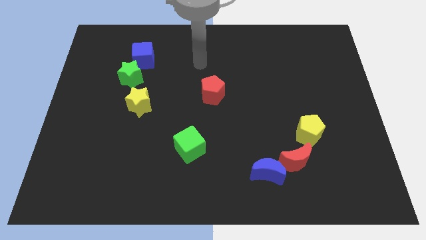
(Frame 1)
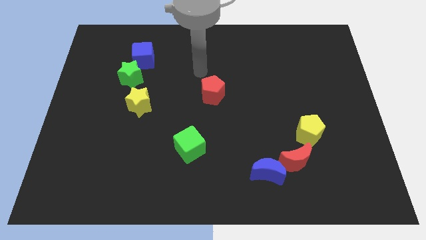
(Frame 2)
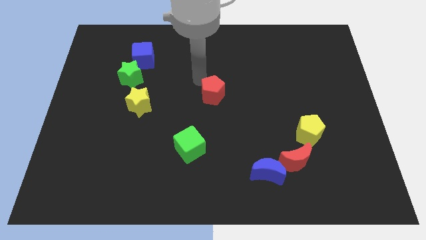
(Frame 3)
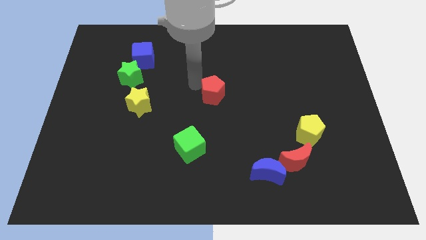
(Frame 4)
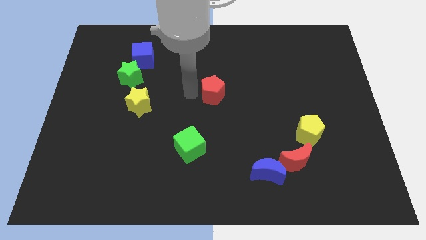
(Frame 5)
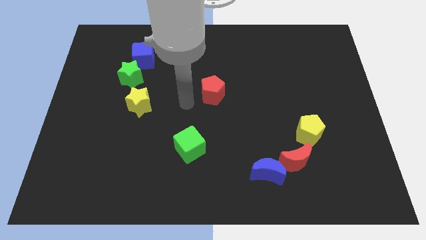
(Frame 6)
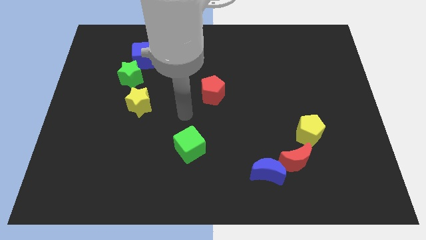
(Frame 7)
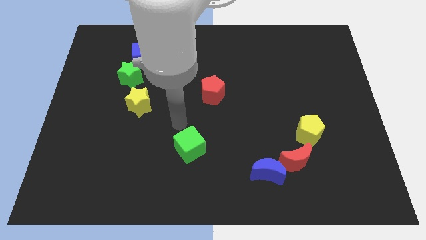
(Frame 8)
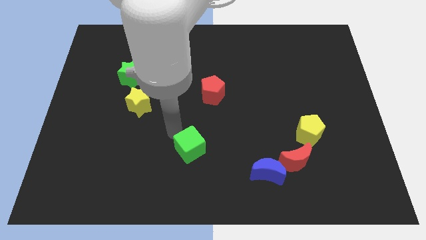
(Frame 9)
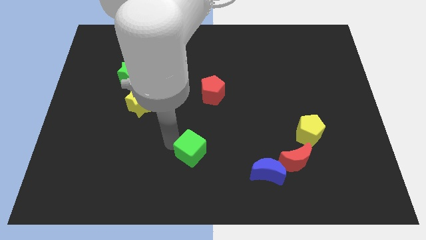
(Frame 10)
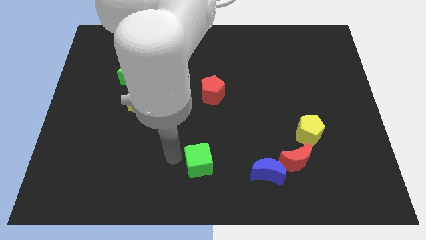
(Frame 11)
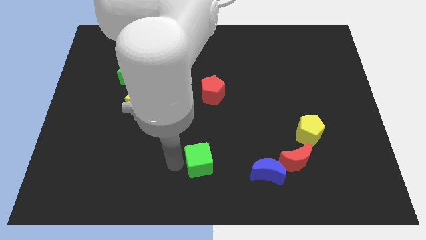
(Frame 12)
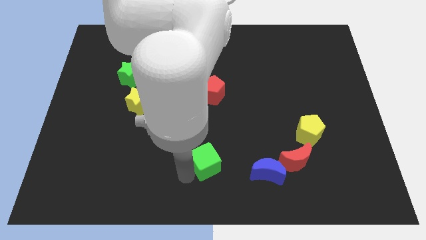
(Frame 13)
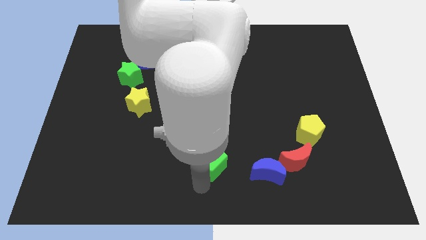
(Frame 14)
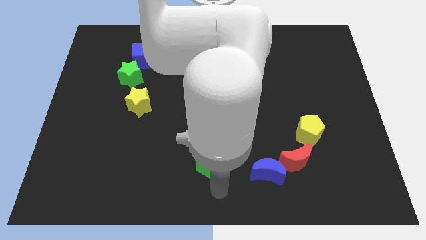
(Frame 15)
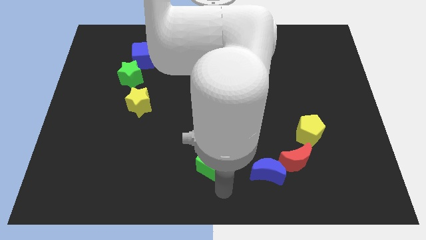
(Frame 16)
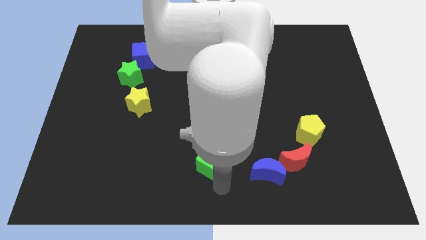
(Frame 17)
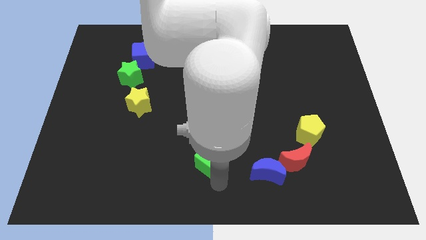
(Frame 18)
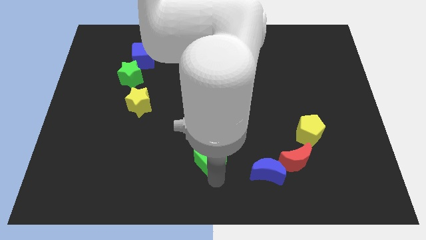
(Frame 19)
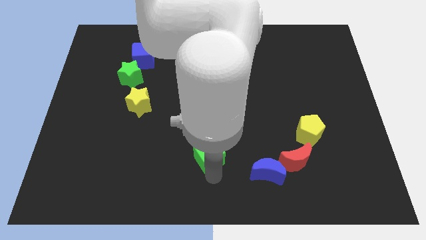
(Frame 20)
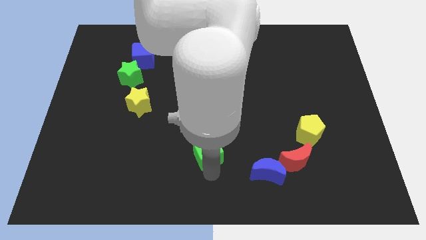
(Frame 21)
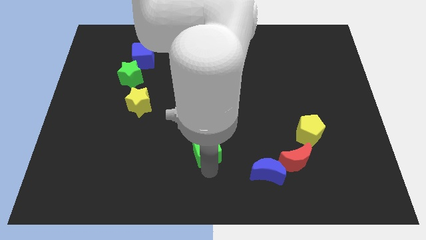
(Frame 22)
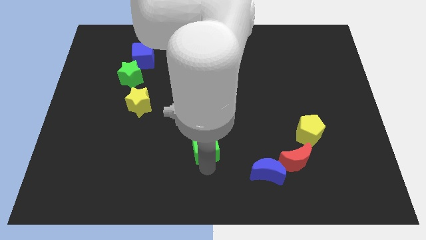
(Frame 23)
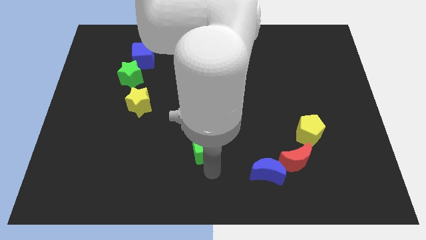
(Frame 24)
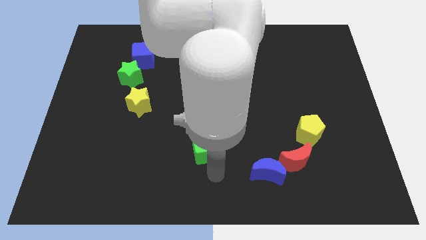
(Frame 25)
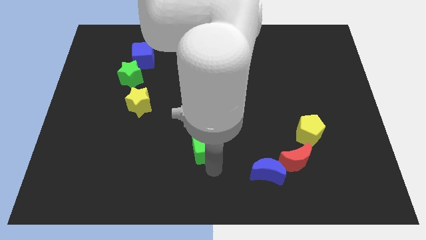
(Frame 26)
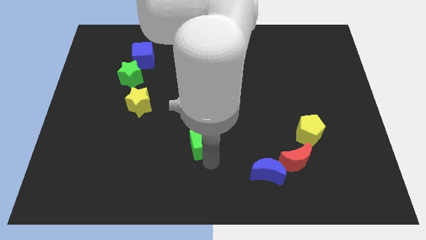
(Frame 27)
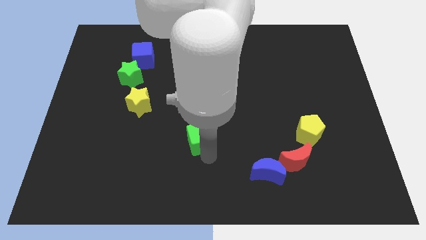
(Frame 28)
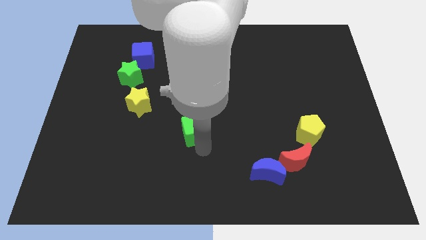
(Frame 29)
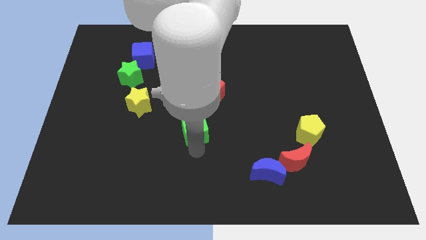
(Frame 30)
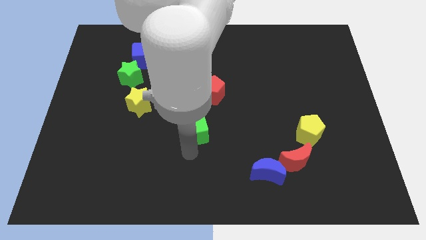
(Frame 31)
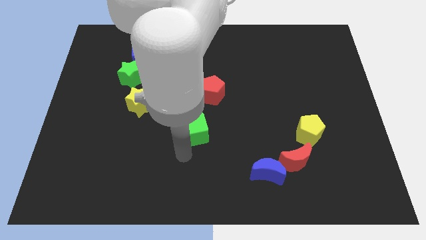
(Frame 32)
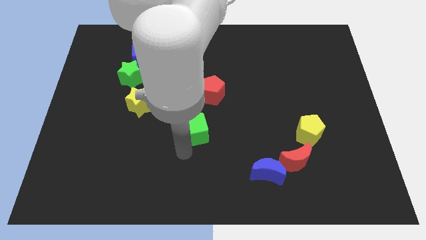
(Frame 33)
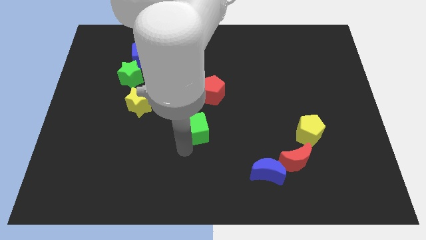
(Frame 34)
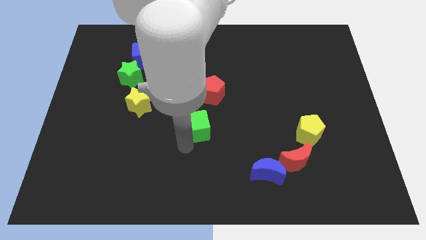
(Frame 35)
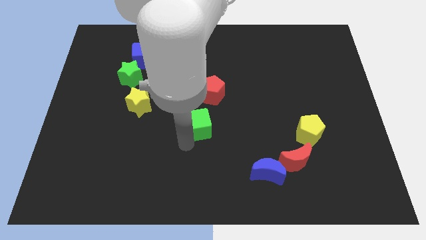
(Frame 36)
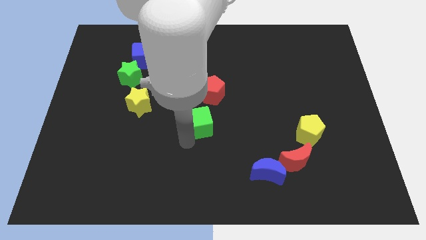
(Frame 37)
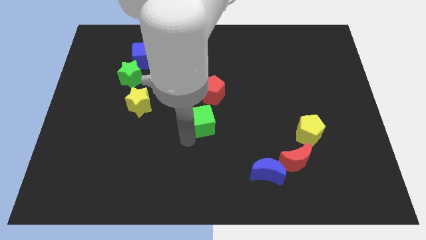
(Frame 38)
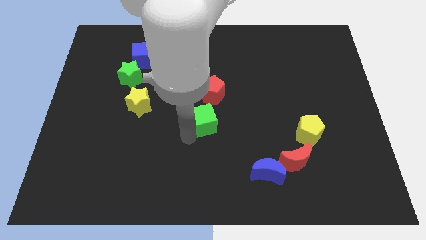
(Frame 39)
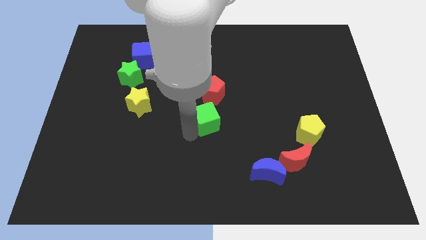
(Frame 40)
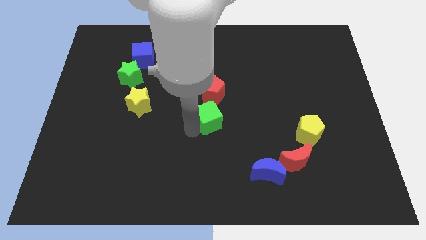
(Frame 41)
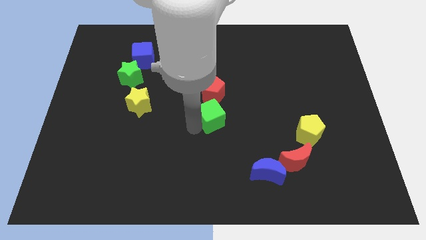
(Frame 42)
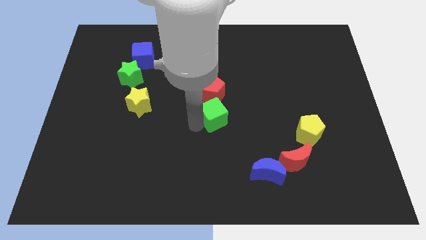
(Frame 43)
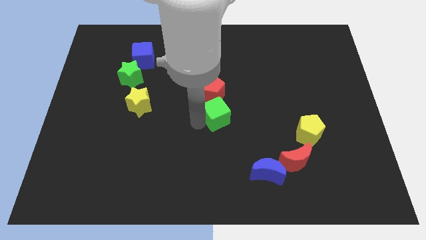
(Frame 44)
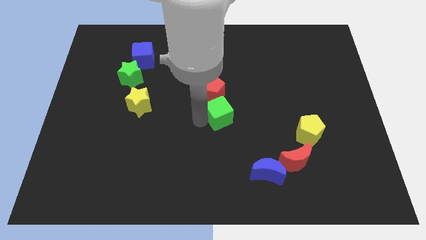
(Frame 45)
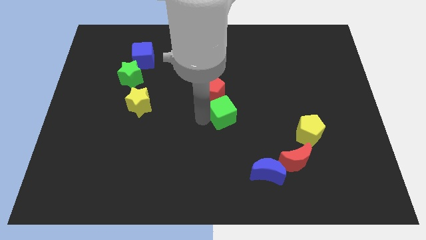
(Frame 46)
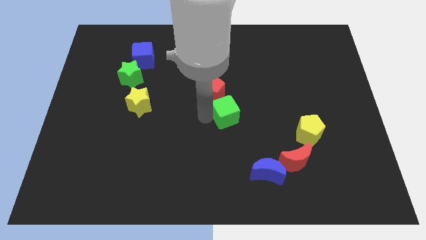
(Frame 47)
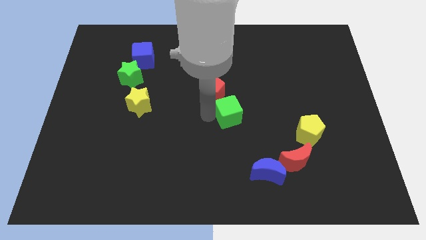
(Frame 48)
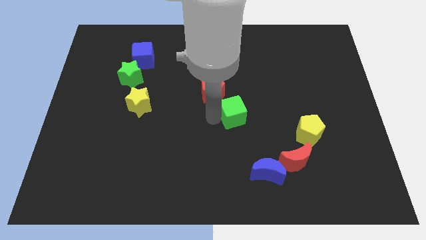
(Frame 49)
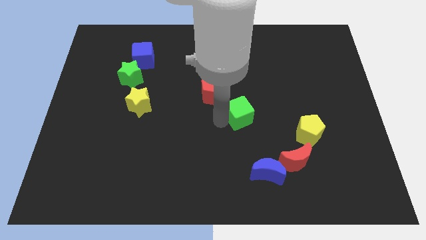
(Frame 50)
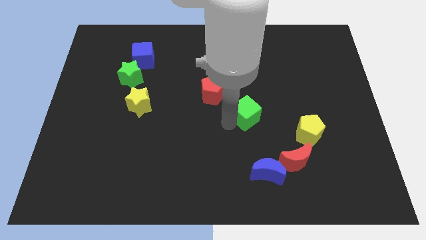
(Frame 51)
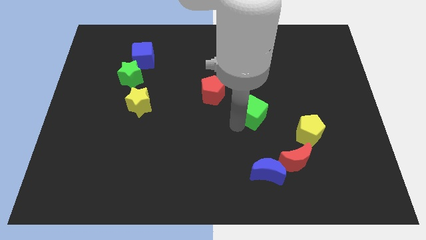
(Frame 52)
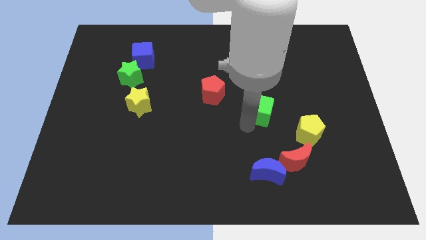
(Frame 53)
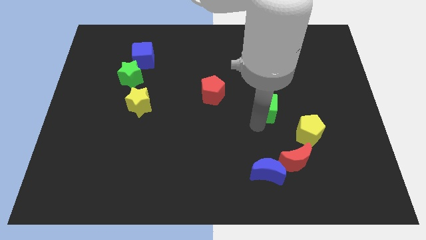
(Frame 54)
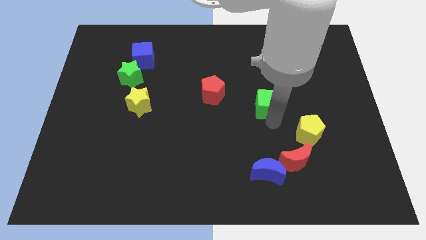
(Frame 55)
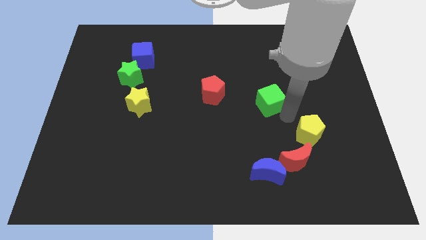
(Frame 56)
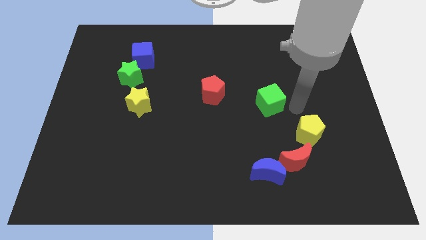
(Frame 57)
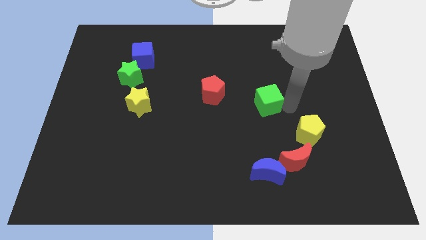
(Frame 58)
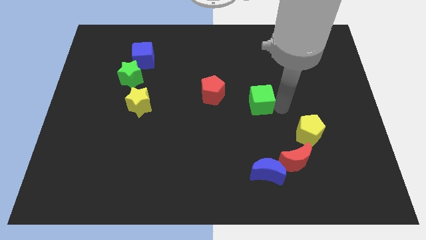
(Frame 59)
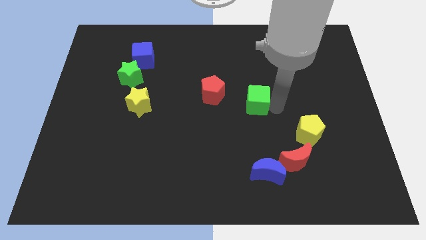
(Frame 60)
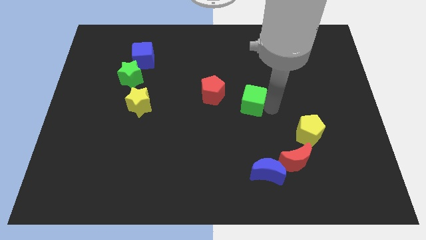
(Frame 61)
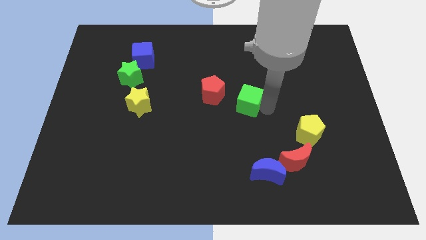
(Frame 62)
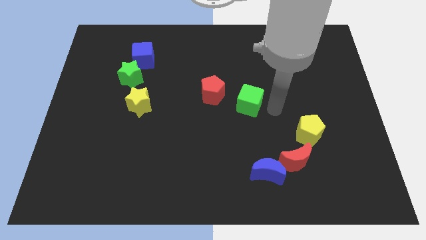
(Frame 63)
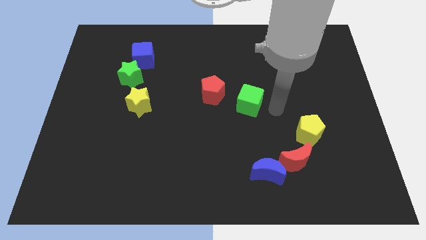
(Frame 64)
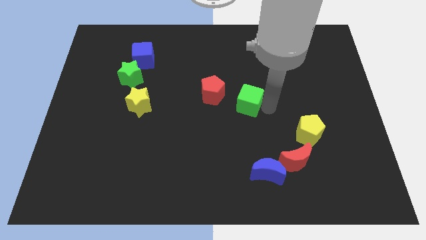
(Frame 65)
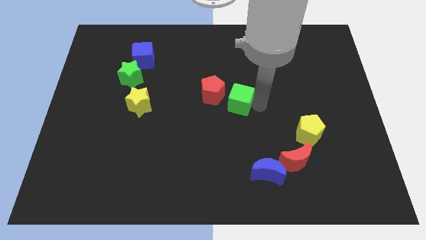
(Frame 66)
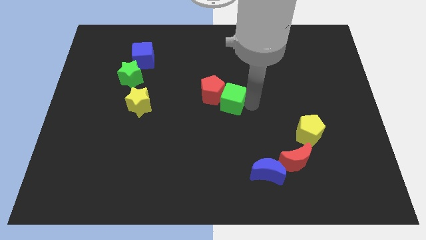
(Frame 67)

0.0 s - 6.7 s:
put the green cube next to the red pentagon
